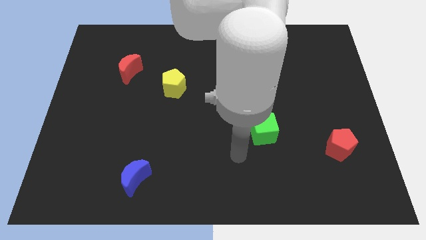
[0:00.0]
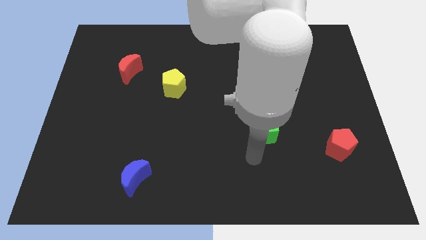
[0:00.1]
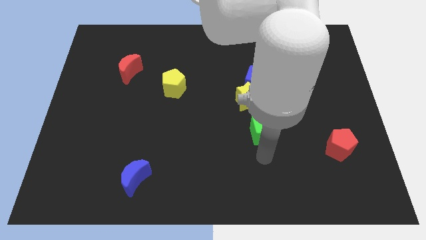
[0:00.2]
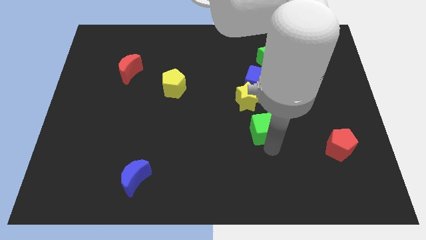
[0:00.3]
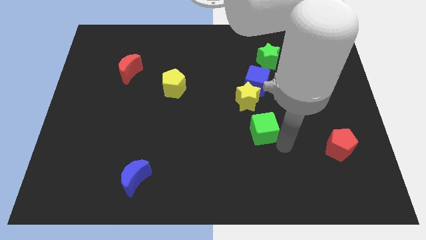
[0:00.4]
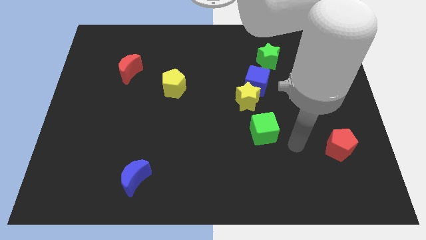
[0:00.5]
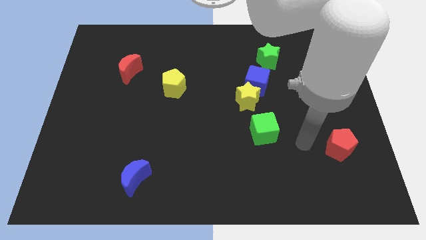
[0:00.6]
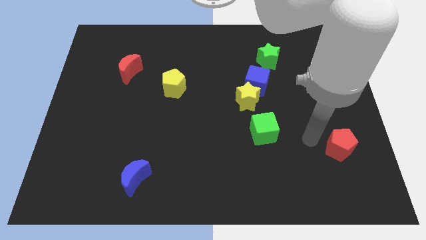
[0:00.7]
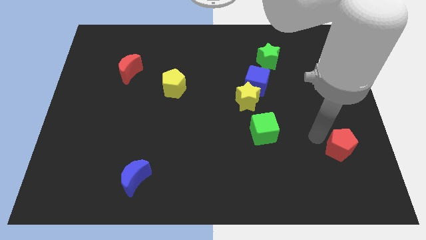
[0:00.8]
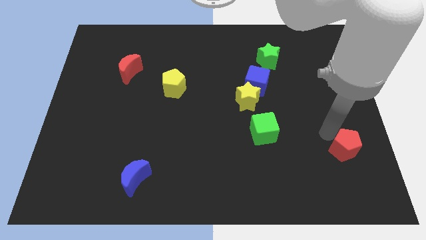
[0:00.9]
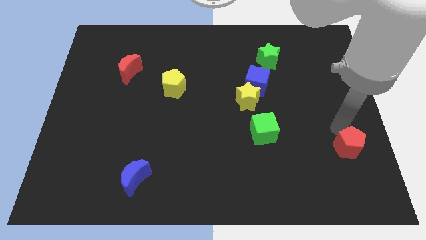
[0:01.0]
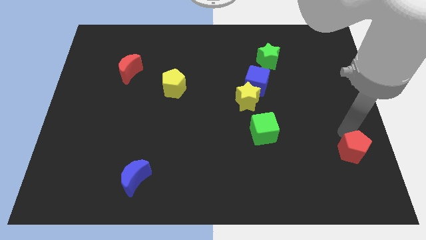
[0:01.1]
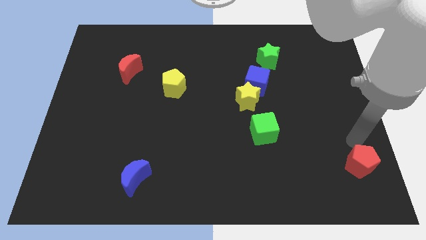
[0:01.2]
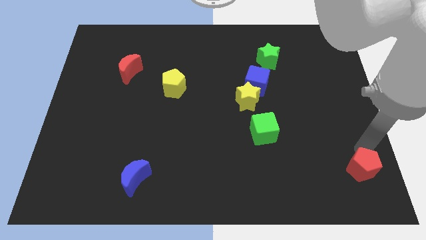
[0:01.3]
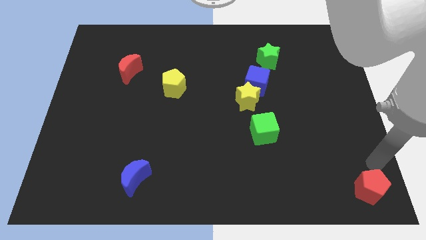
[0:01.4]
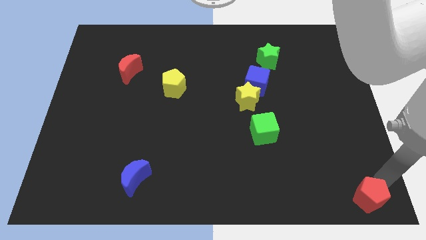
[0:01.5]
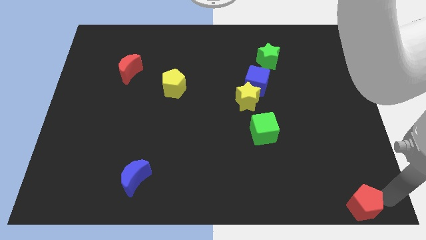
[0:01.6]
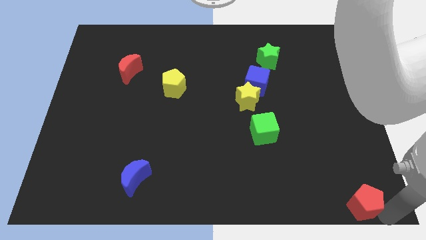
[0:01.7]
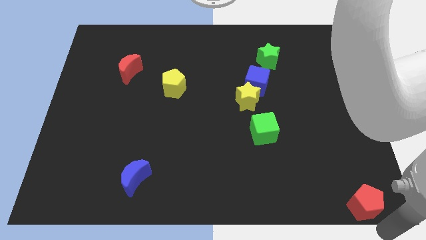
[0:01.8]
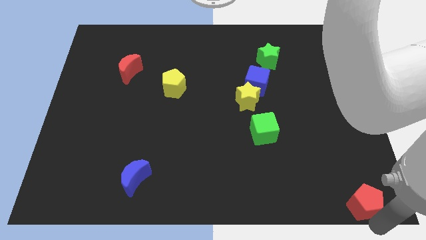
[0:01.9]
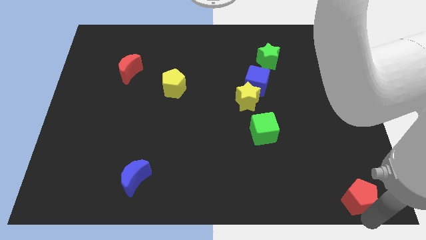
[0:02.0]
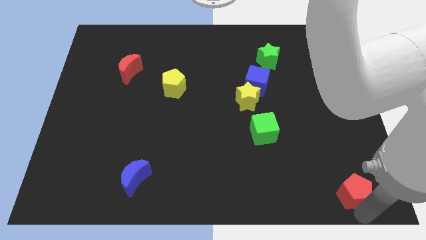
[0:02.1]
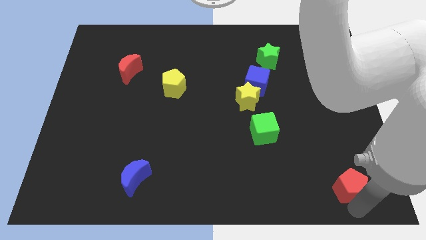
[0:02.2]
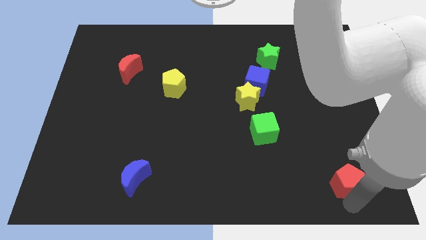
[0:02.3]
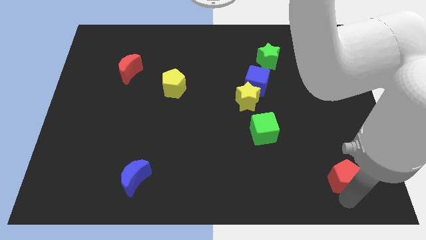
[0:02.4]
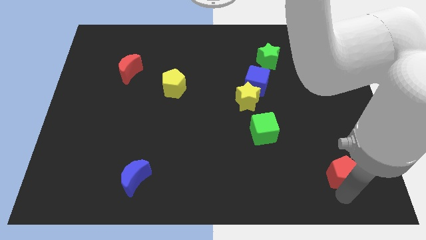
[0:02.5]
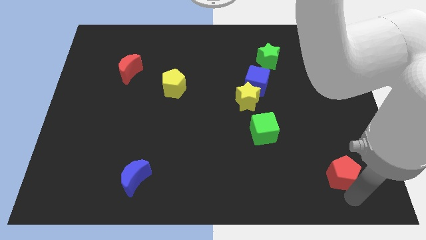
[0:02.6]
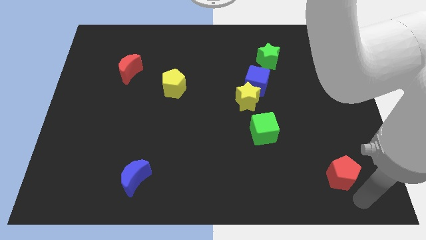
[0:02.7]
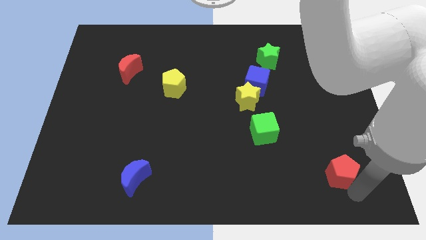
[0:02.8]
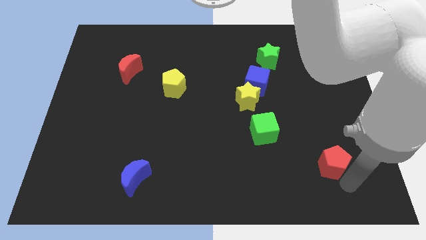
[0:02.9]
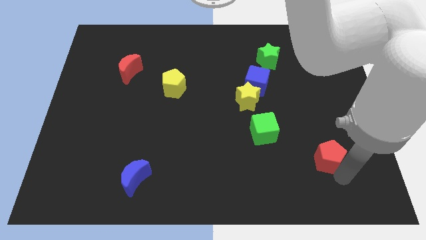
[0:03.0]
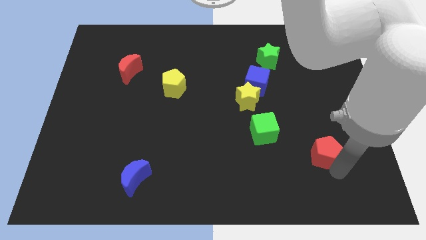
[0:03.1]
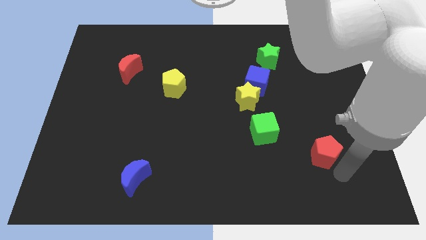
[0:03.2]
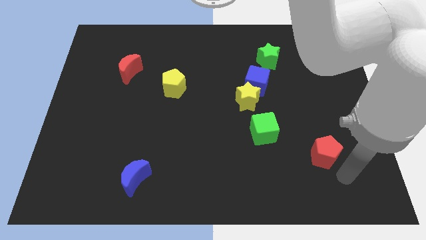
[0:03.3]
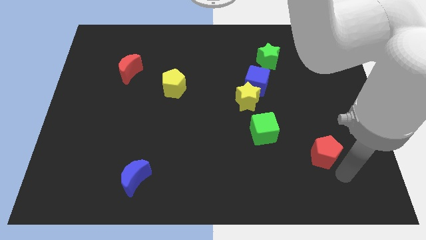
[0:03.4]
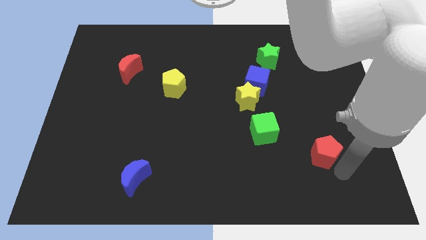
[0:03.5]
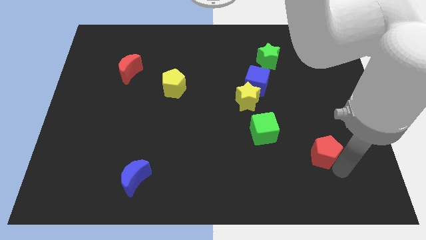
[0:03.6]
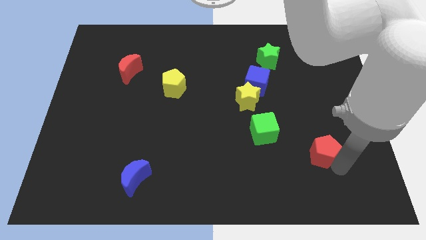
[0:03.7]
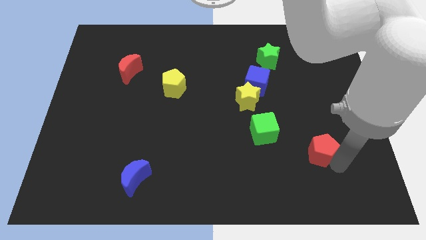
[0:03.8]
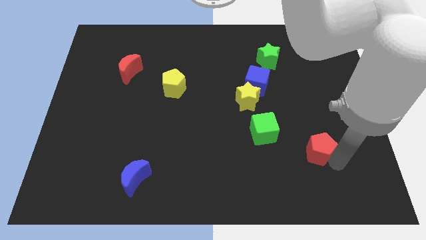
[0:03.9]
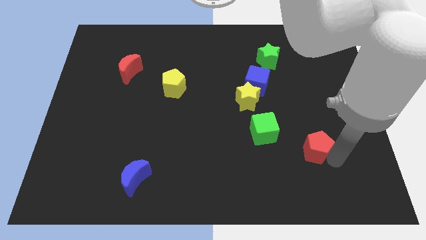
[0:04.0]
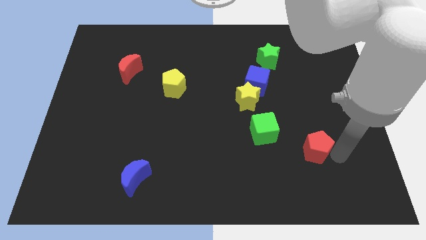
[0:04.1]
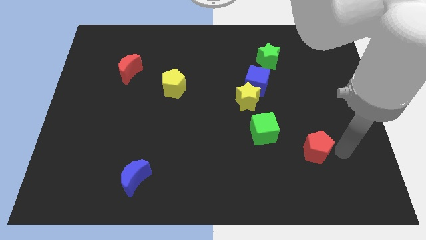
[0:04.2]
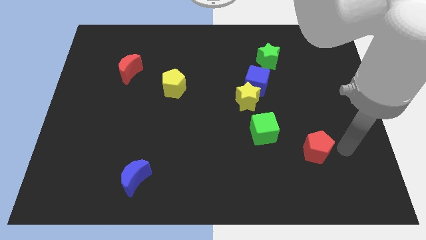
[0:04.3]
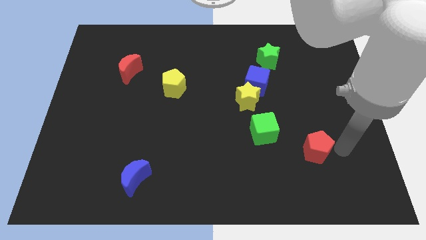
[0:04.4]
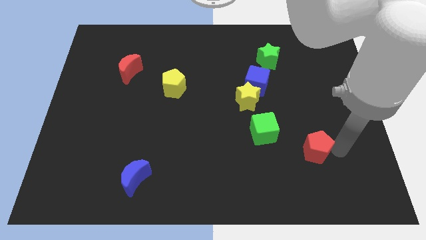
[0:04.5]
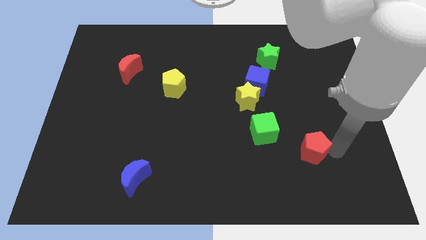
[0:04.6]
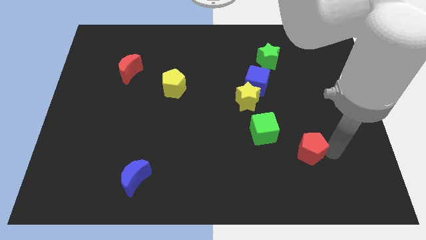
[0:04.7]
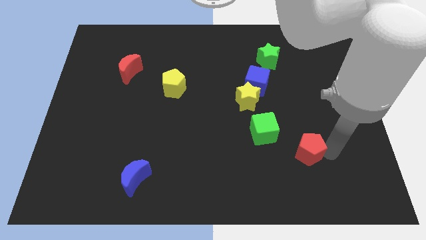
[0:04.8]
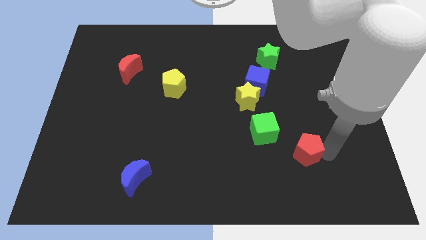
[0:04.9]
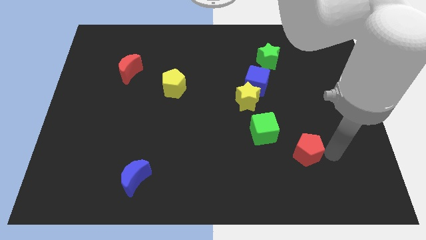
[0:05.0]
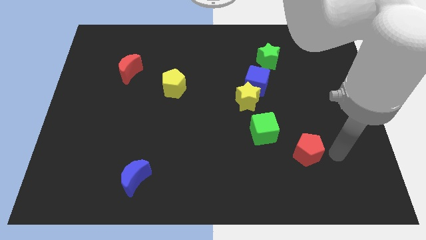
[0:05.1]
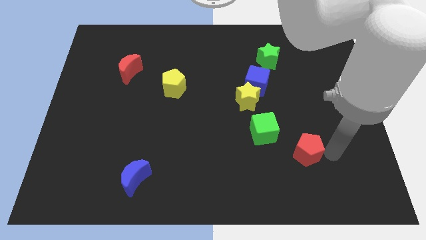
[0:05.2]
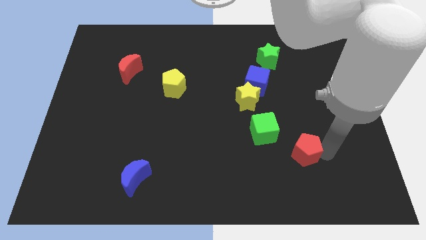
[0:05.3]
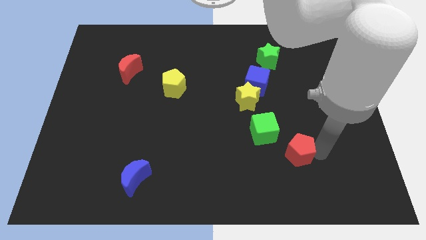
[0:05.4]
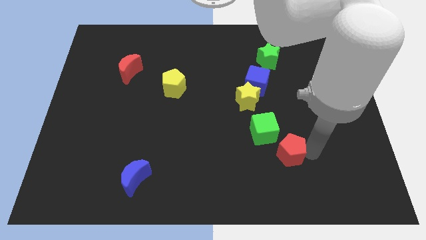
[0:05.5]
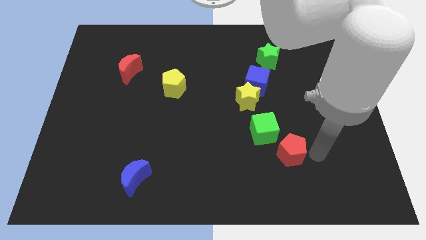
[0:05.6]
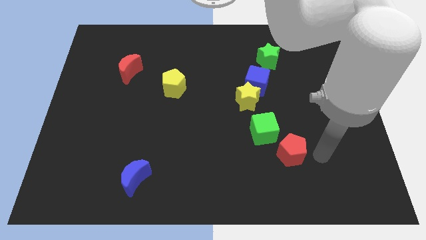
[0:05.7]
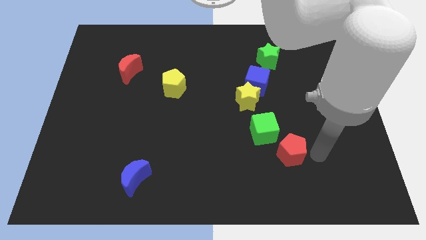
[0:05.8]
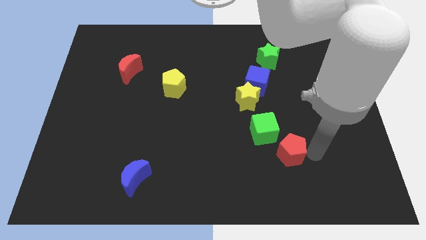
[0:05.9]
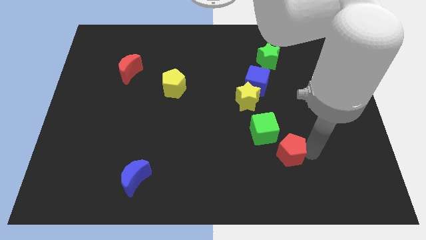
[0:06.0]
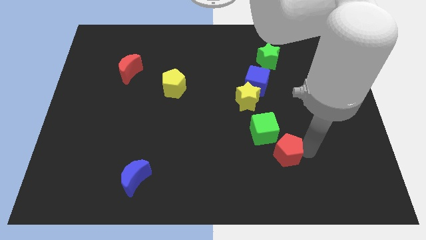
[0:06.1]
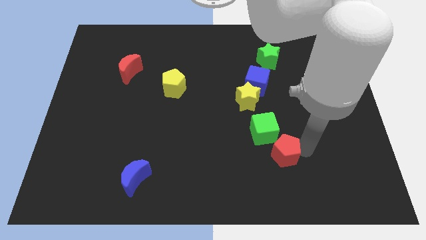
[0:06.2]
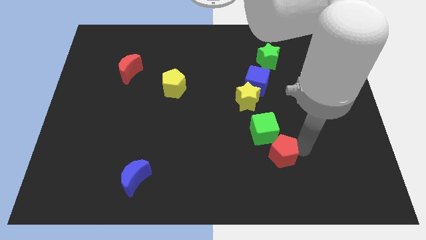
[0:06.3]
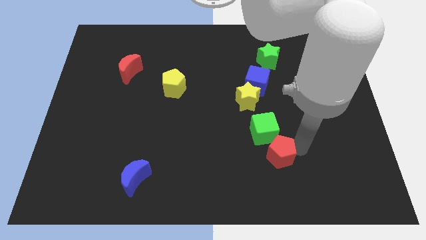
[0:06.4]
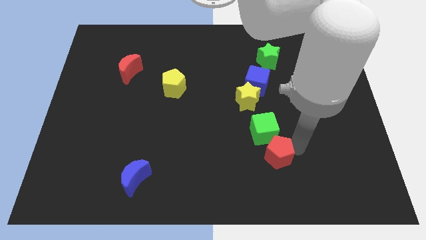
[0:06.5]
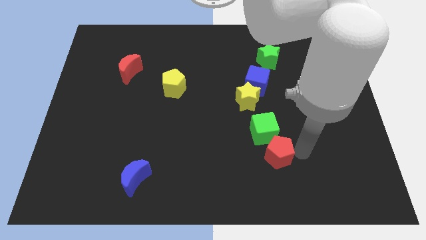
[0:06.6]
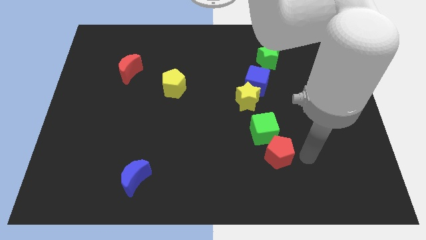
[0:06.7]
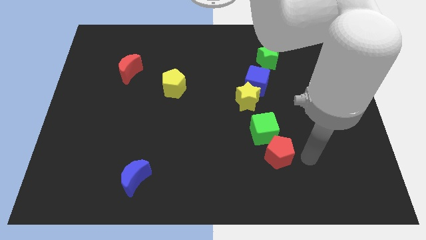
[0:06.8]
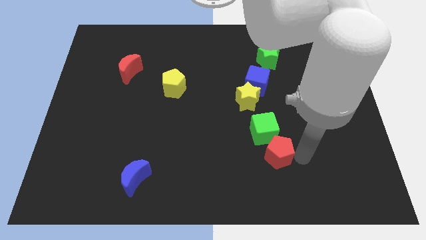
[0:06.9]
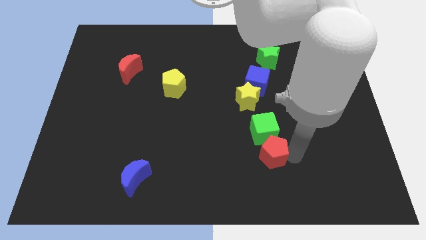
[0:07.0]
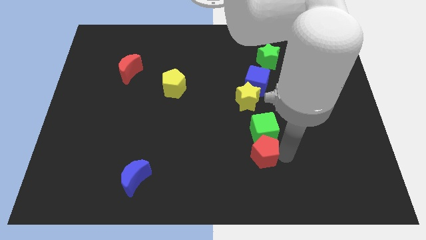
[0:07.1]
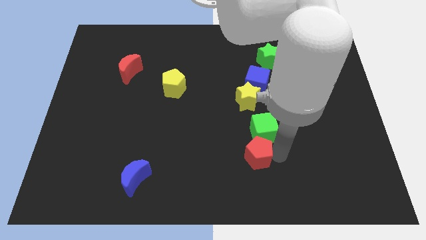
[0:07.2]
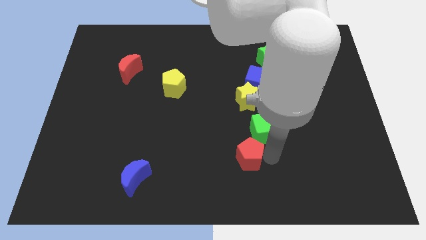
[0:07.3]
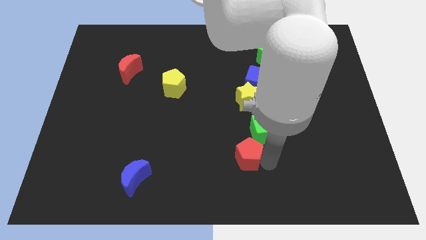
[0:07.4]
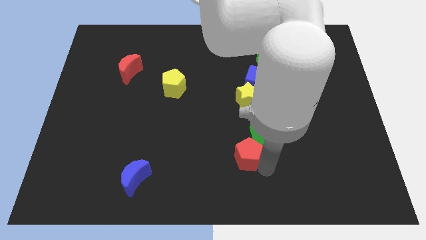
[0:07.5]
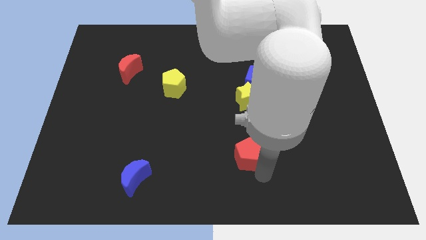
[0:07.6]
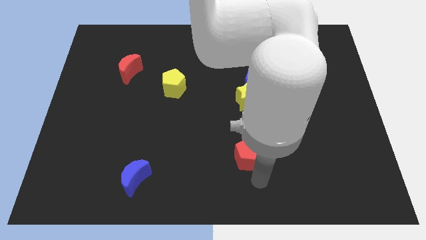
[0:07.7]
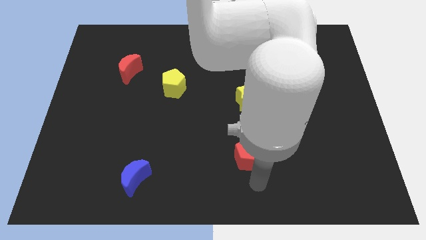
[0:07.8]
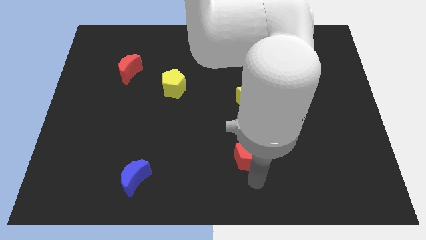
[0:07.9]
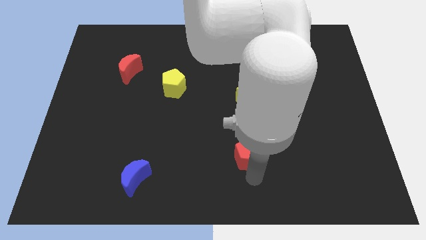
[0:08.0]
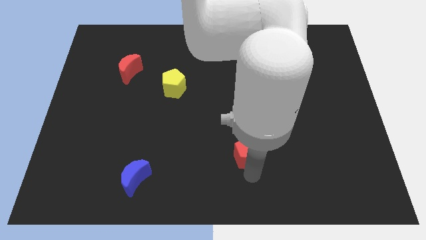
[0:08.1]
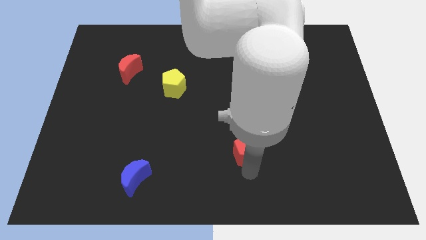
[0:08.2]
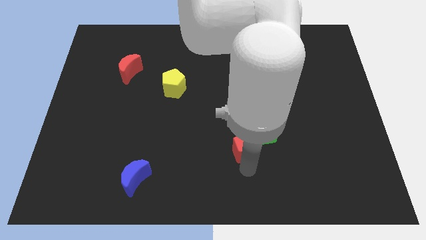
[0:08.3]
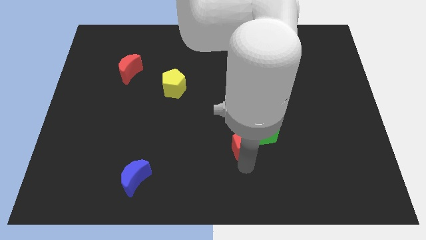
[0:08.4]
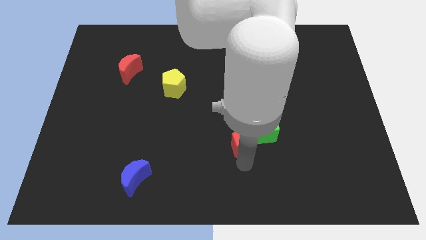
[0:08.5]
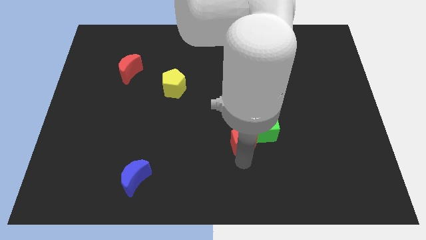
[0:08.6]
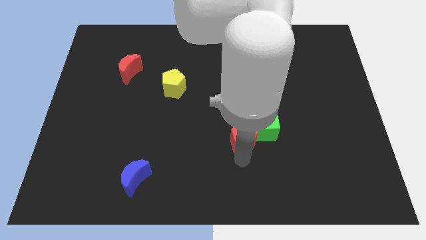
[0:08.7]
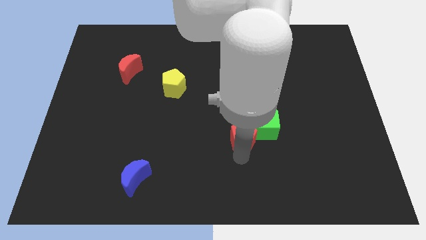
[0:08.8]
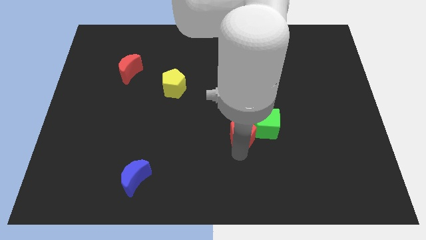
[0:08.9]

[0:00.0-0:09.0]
put the red pentagon to the center of the board
